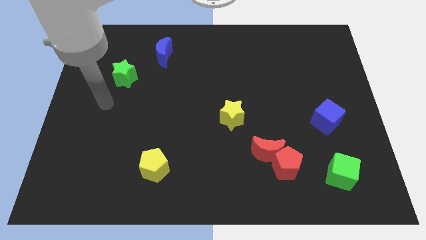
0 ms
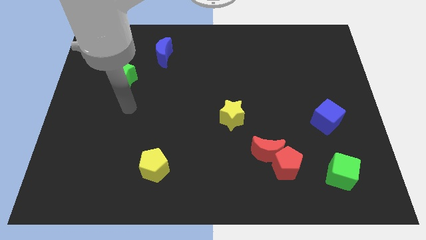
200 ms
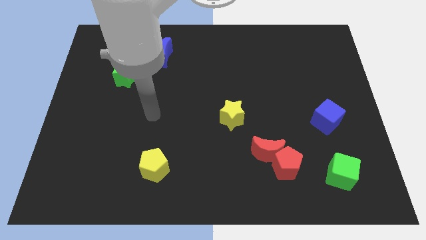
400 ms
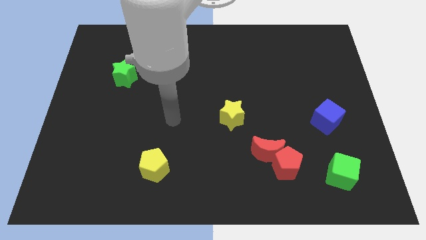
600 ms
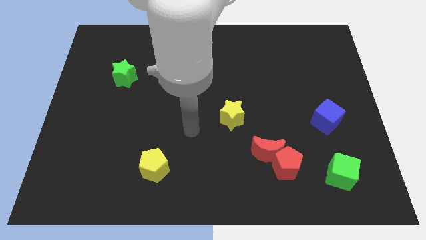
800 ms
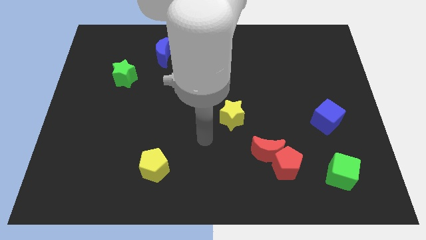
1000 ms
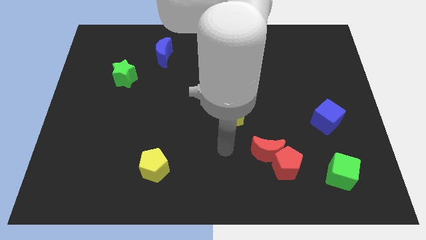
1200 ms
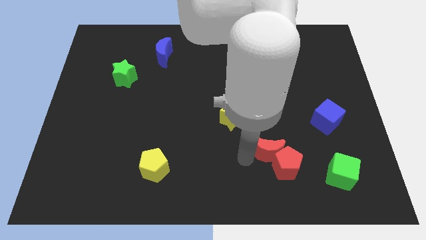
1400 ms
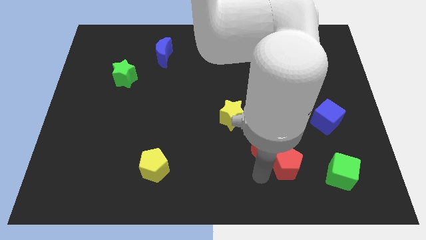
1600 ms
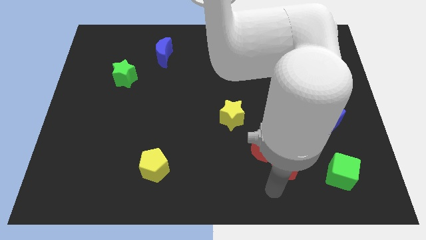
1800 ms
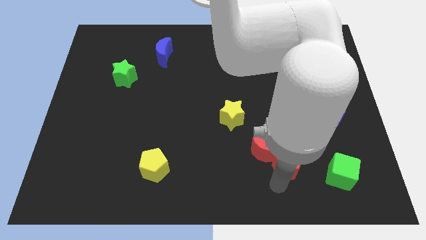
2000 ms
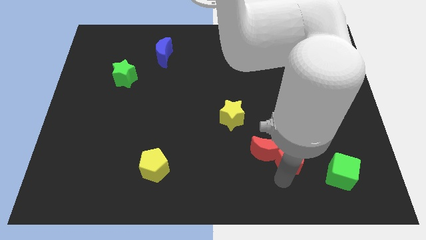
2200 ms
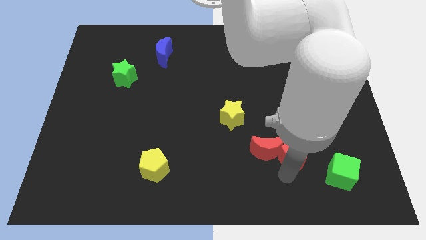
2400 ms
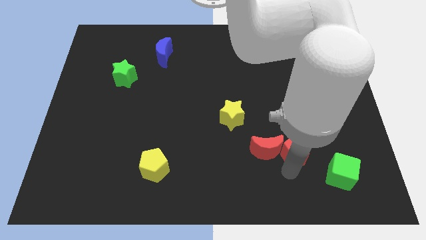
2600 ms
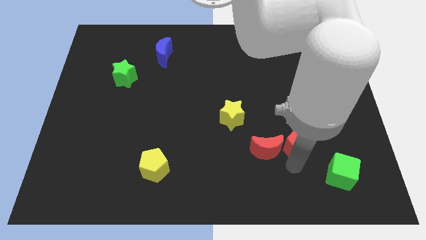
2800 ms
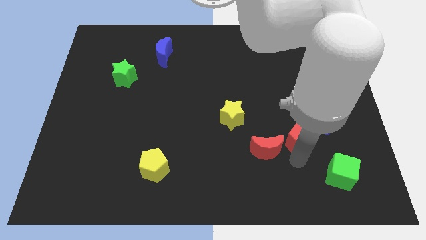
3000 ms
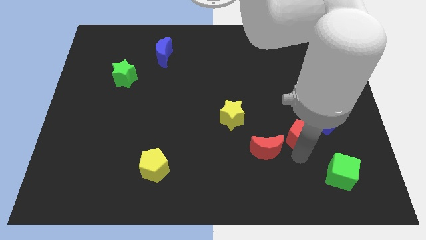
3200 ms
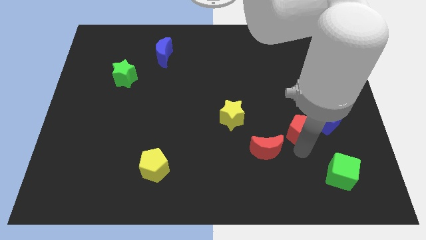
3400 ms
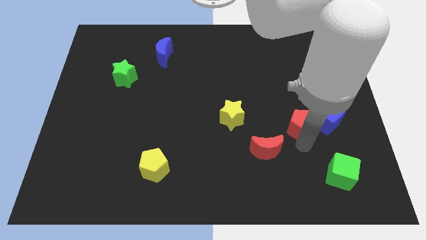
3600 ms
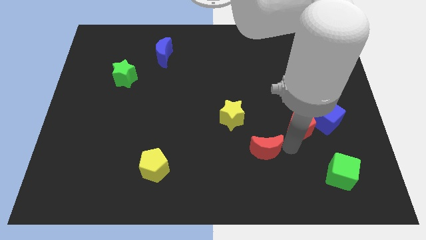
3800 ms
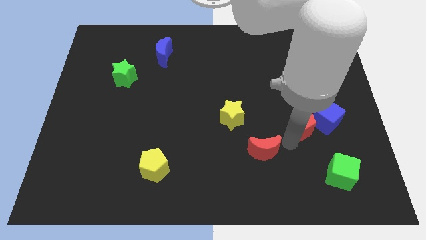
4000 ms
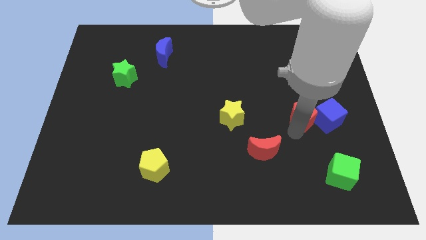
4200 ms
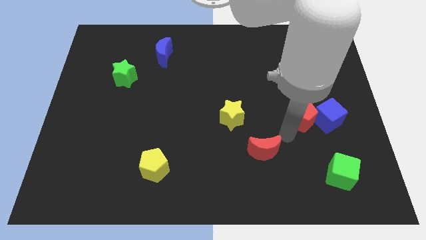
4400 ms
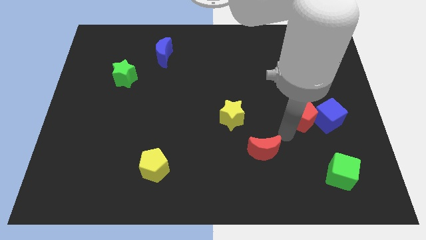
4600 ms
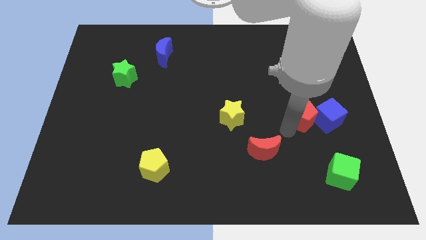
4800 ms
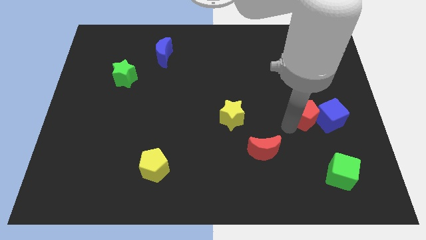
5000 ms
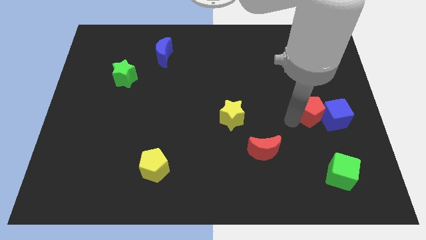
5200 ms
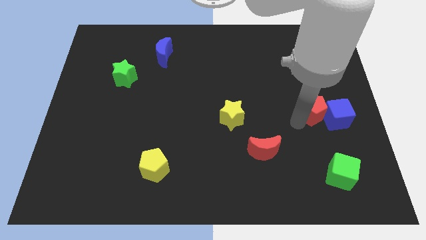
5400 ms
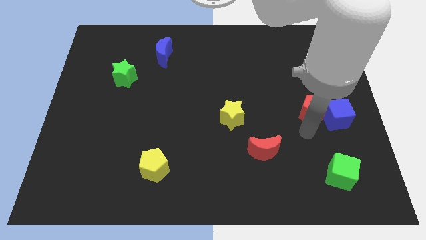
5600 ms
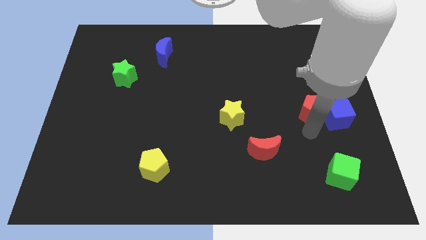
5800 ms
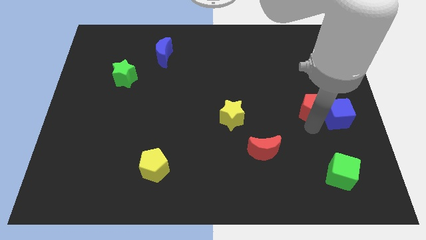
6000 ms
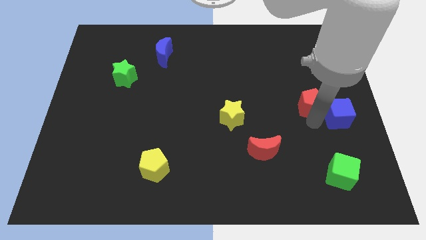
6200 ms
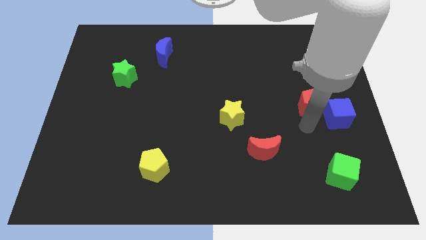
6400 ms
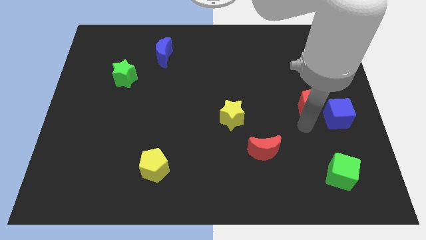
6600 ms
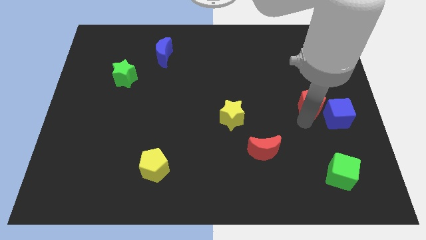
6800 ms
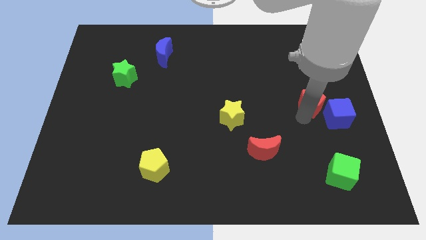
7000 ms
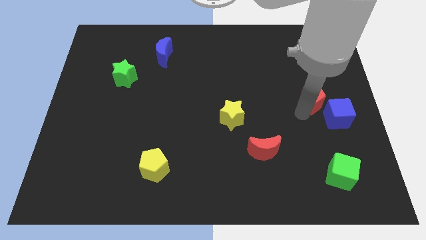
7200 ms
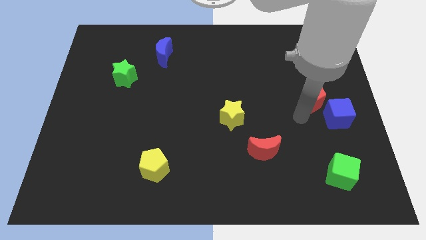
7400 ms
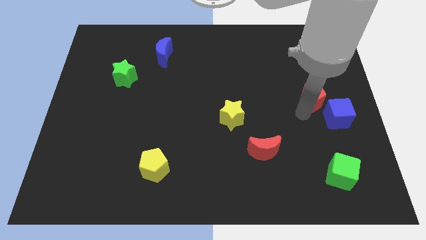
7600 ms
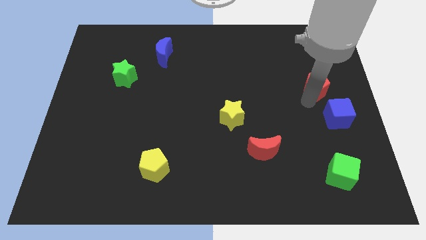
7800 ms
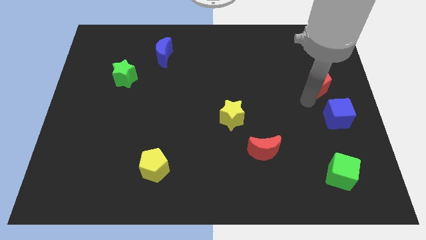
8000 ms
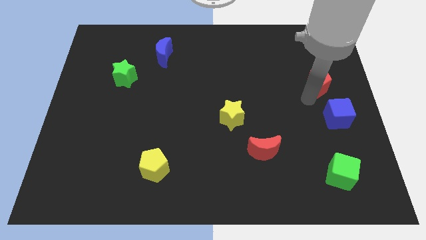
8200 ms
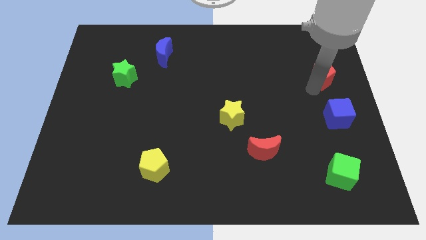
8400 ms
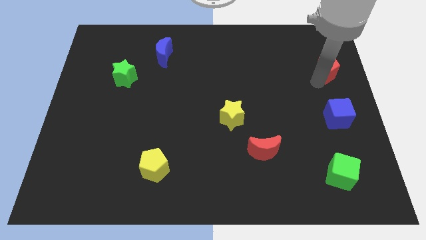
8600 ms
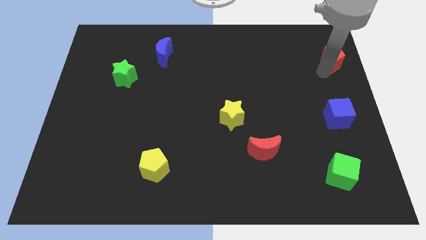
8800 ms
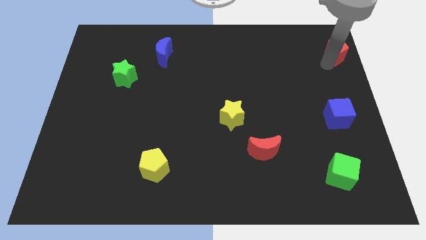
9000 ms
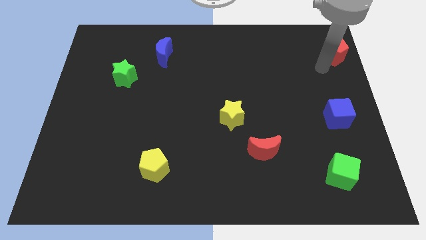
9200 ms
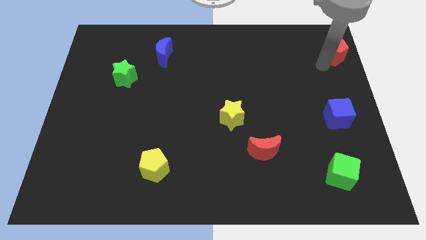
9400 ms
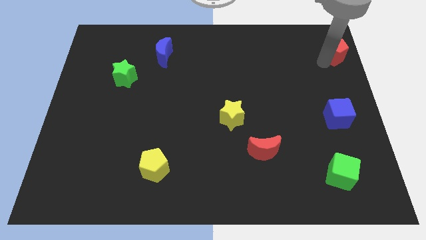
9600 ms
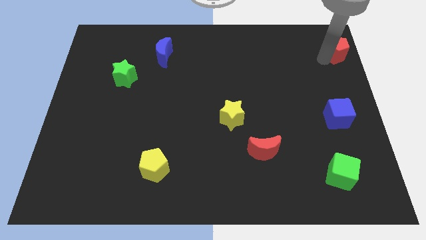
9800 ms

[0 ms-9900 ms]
push the red pentagon to the top right of the board

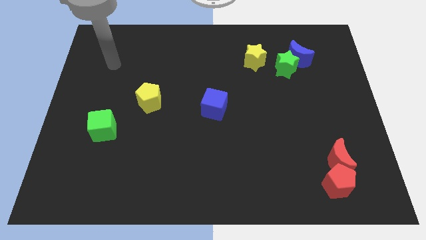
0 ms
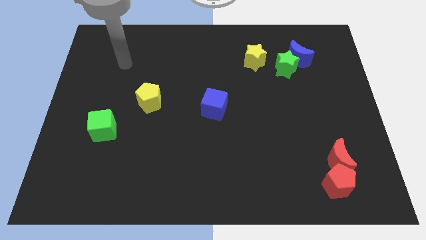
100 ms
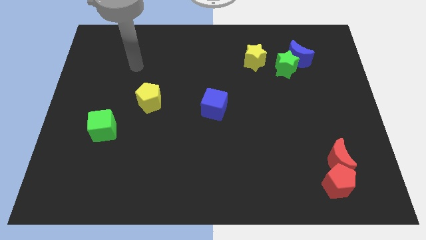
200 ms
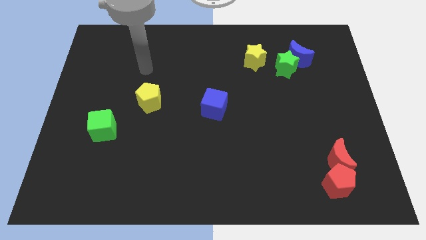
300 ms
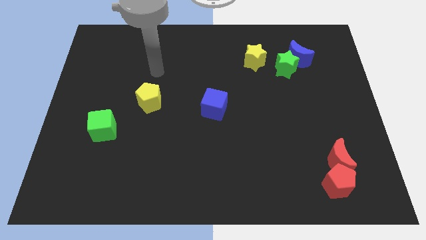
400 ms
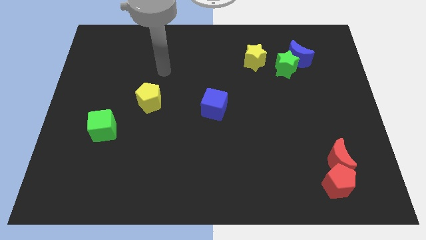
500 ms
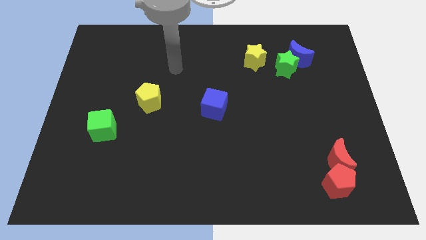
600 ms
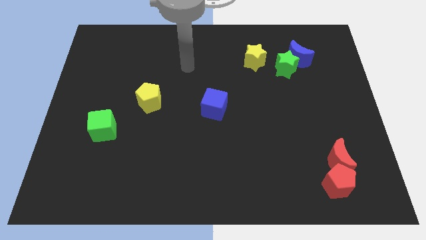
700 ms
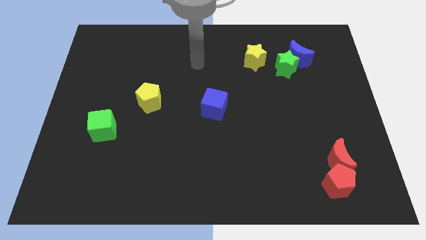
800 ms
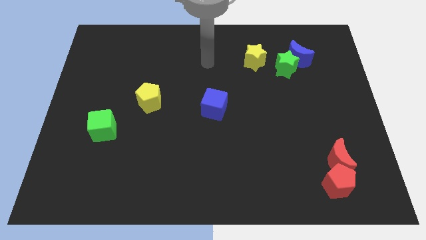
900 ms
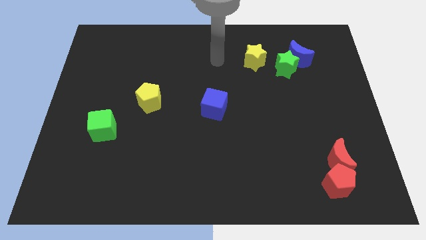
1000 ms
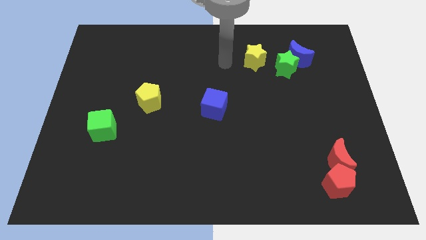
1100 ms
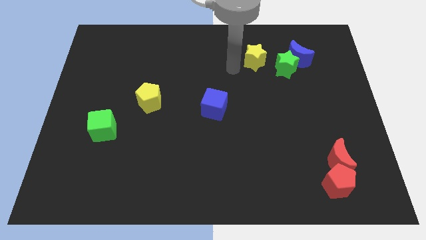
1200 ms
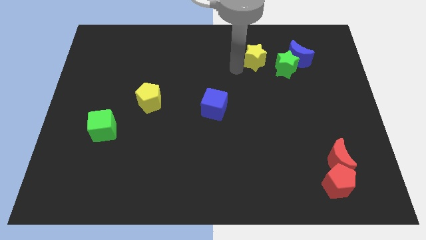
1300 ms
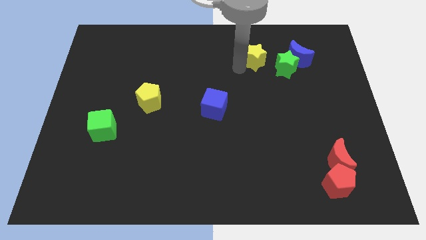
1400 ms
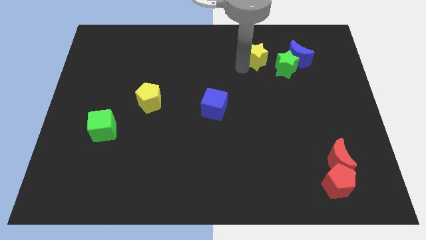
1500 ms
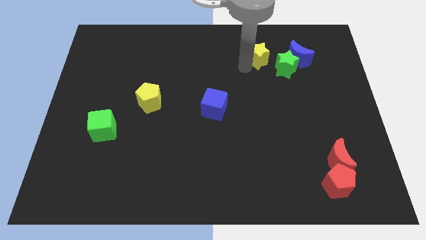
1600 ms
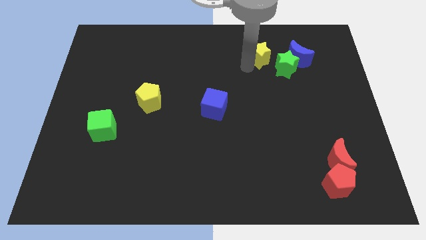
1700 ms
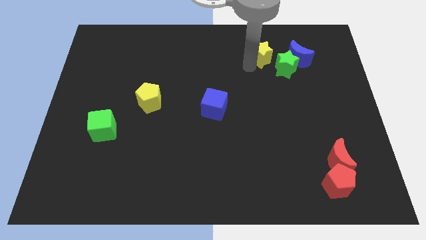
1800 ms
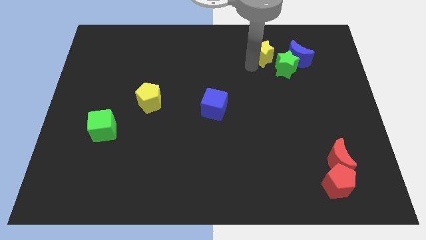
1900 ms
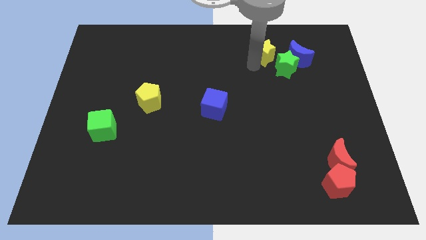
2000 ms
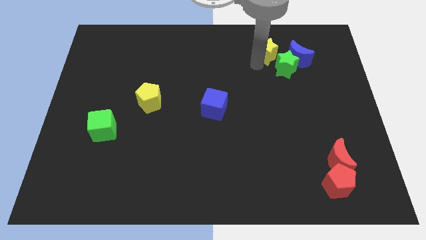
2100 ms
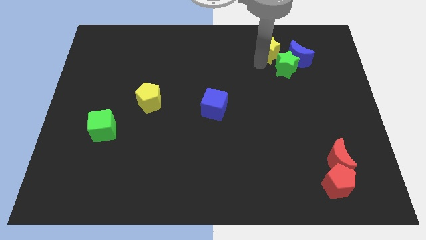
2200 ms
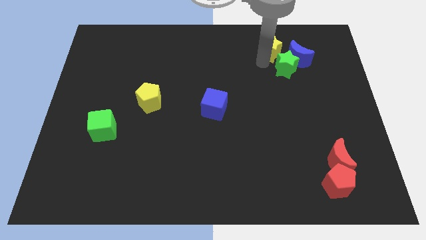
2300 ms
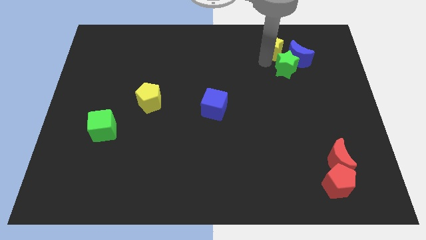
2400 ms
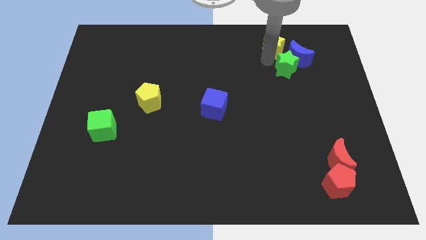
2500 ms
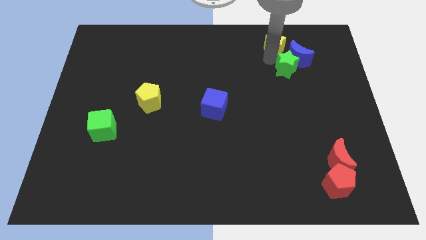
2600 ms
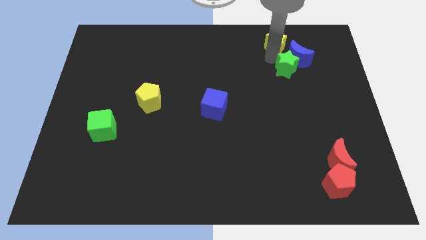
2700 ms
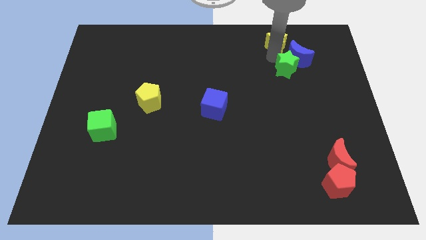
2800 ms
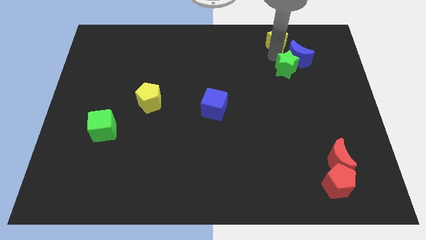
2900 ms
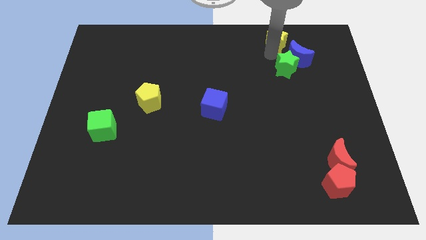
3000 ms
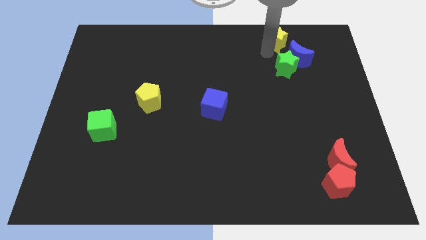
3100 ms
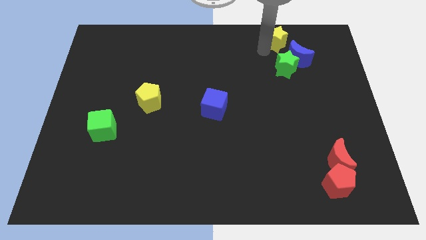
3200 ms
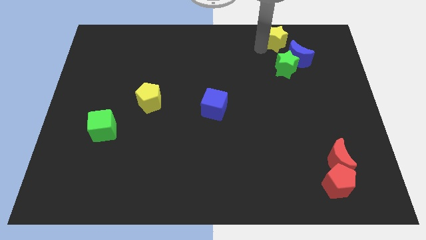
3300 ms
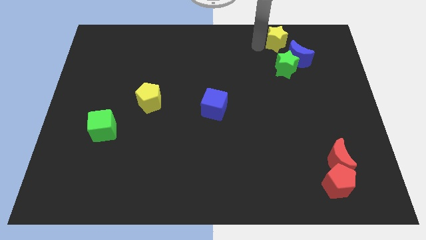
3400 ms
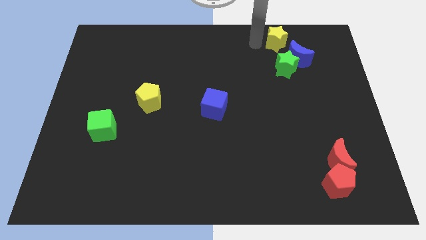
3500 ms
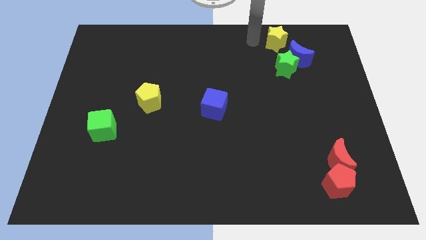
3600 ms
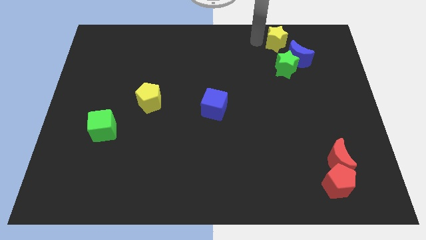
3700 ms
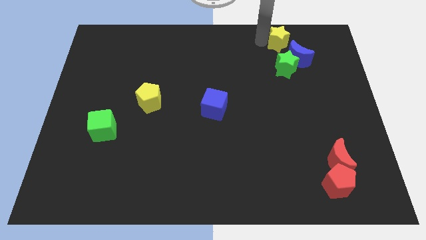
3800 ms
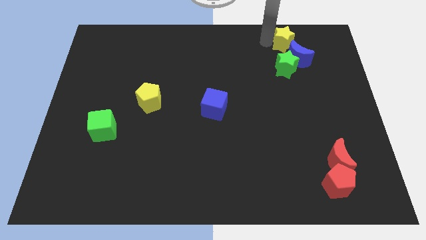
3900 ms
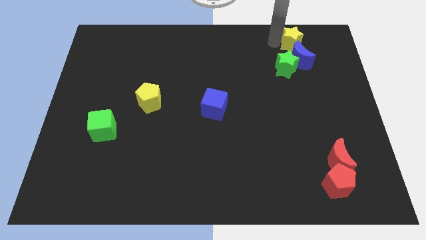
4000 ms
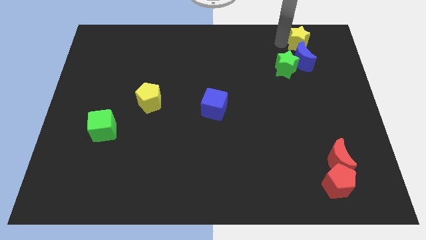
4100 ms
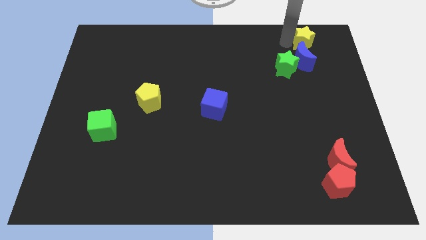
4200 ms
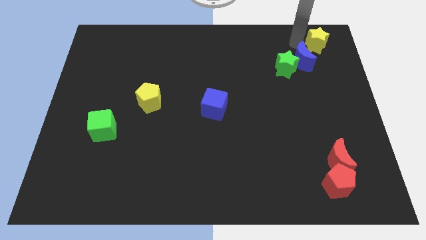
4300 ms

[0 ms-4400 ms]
put the yellow star to the top right corner
